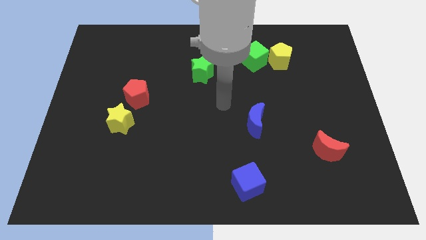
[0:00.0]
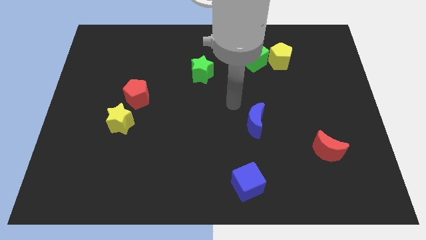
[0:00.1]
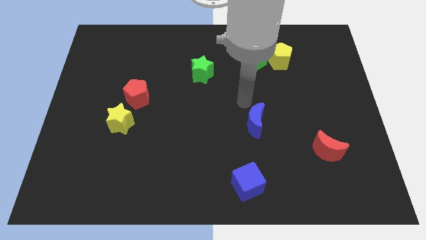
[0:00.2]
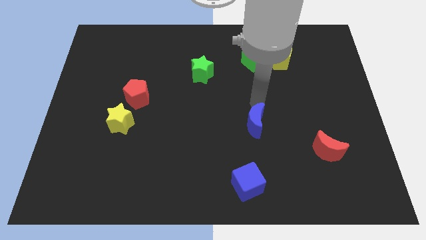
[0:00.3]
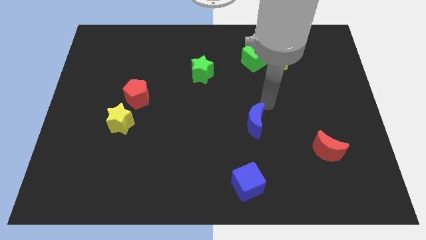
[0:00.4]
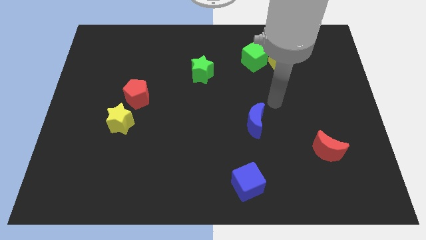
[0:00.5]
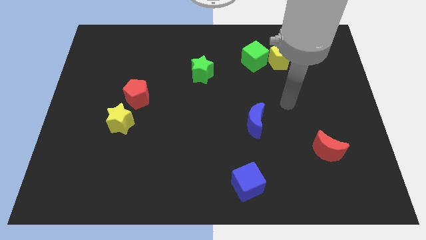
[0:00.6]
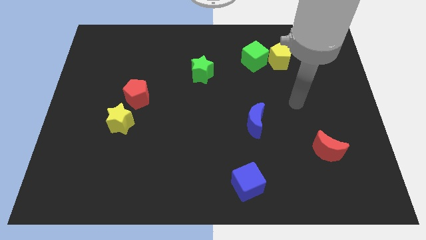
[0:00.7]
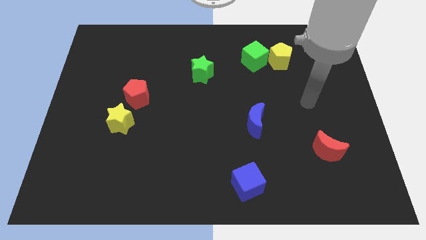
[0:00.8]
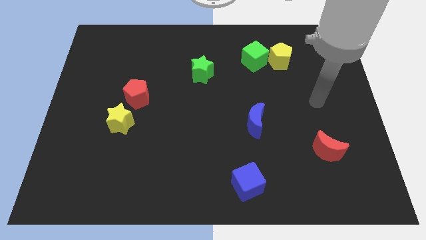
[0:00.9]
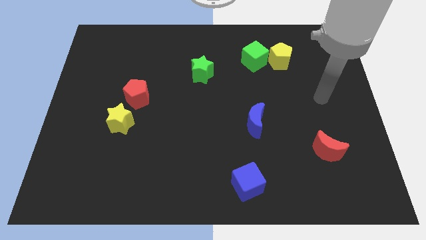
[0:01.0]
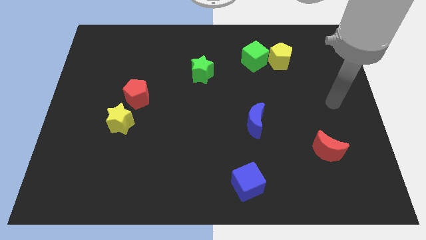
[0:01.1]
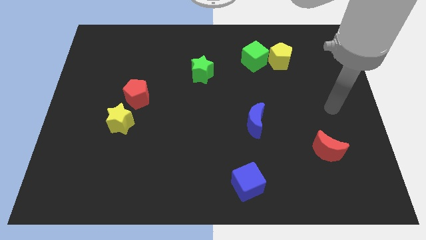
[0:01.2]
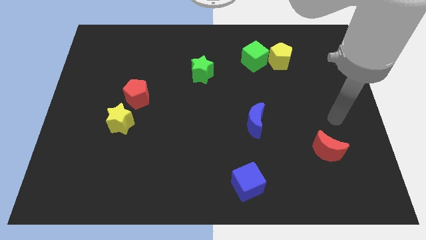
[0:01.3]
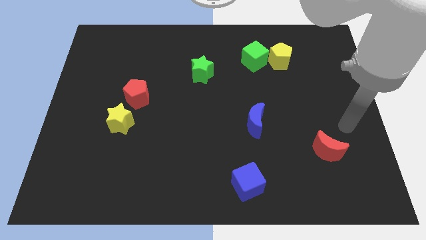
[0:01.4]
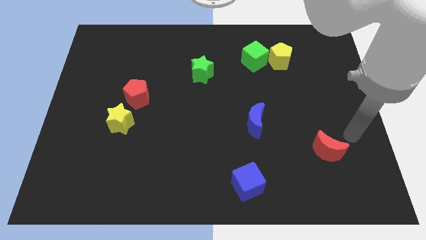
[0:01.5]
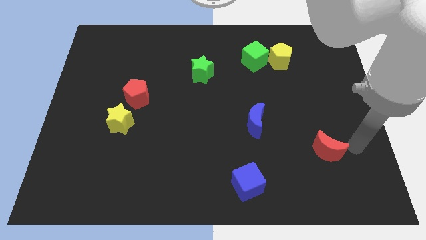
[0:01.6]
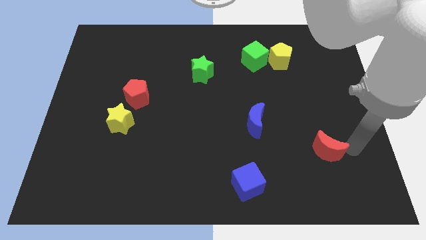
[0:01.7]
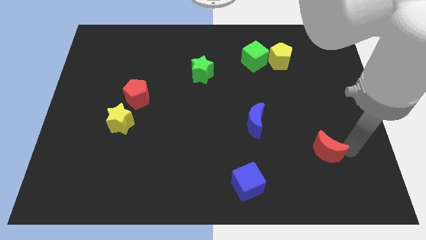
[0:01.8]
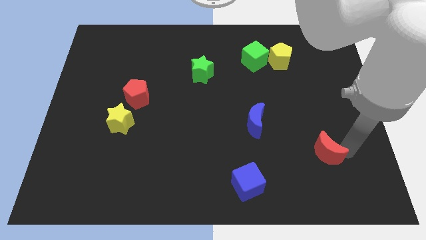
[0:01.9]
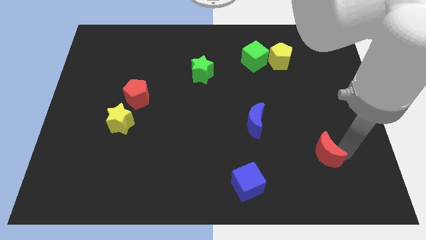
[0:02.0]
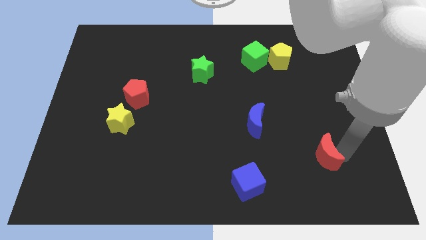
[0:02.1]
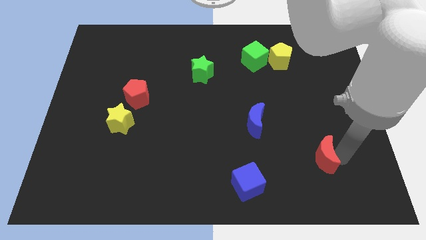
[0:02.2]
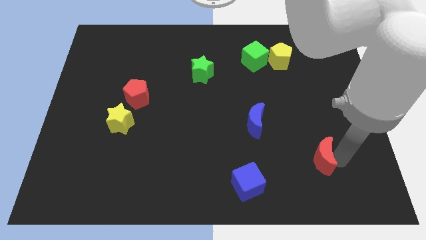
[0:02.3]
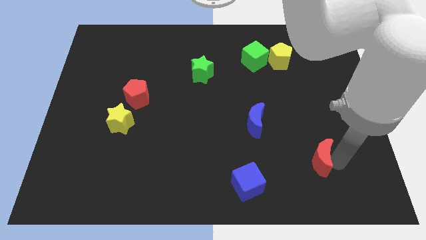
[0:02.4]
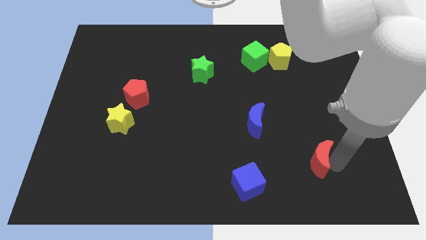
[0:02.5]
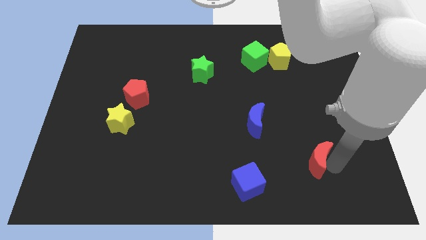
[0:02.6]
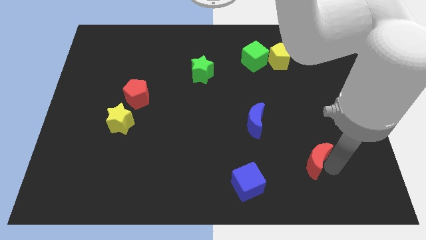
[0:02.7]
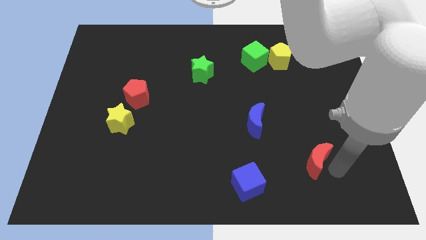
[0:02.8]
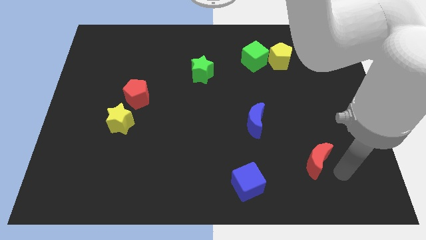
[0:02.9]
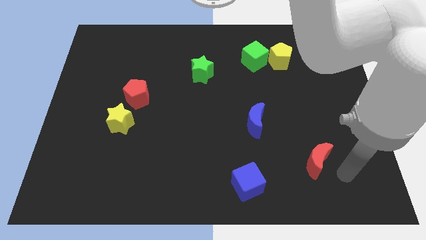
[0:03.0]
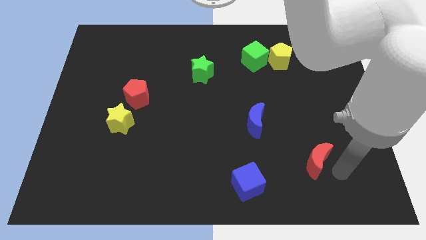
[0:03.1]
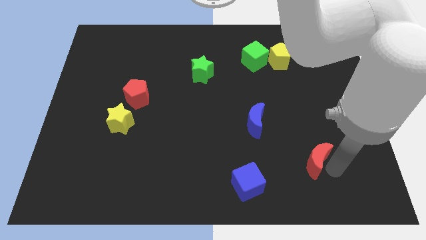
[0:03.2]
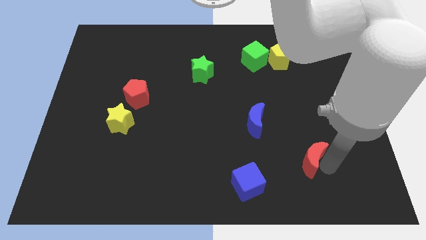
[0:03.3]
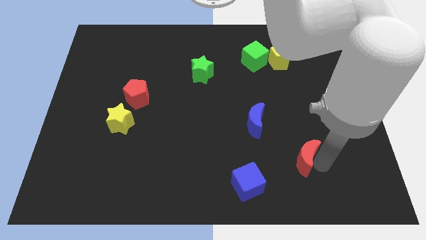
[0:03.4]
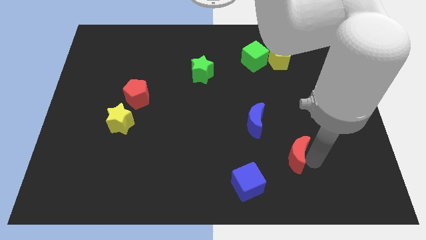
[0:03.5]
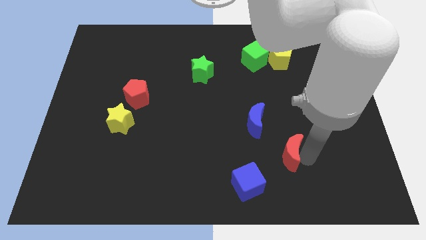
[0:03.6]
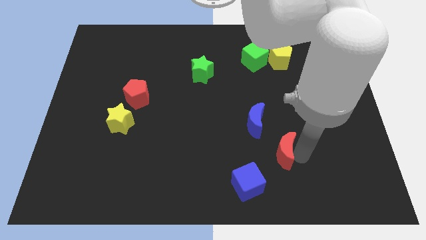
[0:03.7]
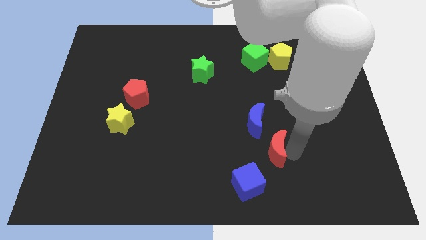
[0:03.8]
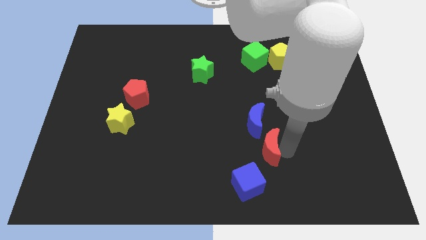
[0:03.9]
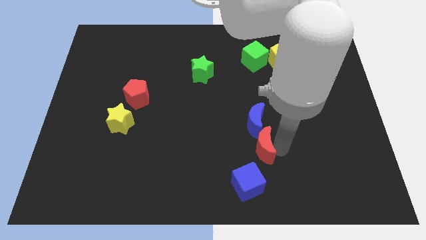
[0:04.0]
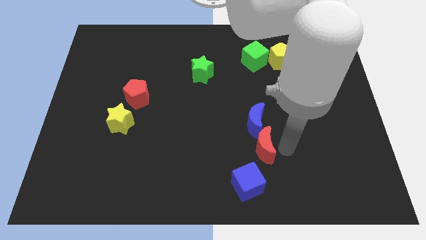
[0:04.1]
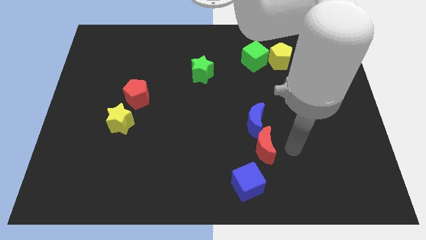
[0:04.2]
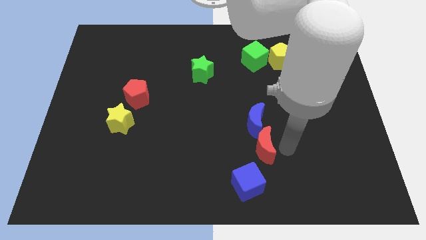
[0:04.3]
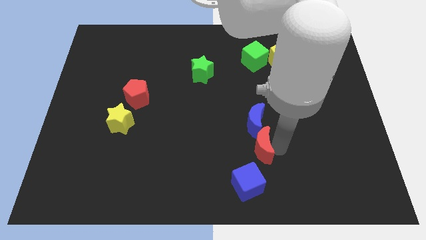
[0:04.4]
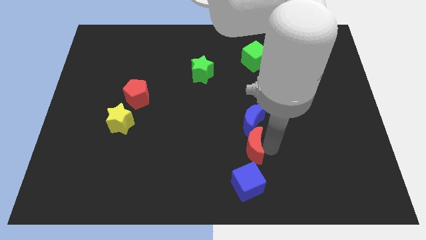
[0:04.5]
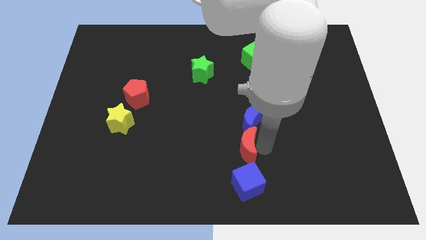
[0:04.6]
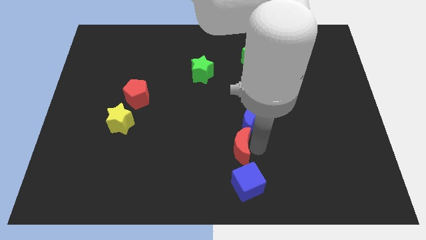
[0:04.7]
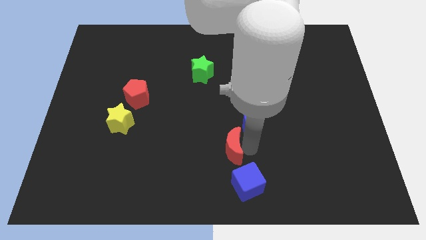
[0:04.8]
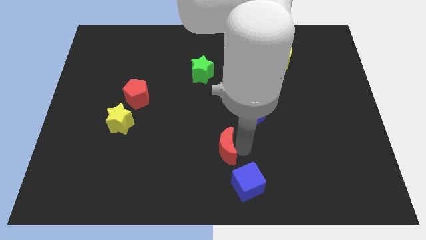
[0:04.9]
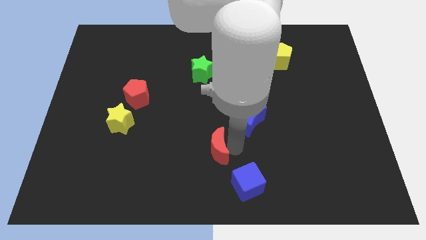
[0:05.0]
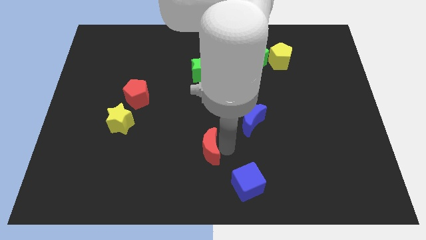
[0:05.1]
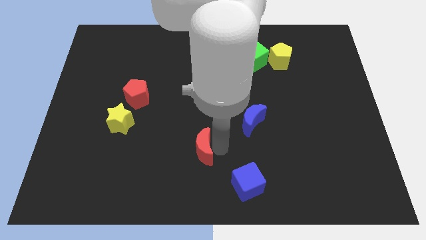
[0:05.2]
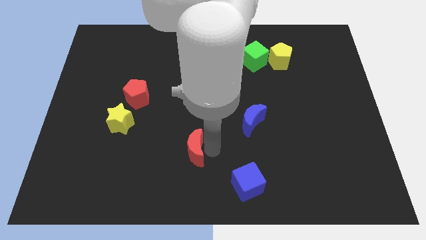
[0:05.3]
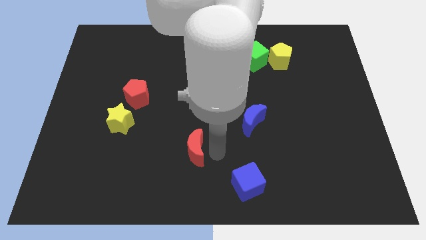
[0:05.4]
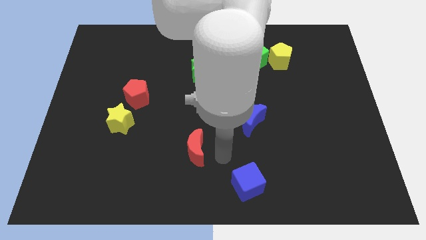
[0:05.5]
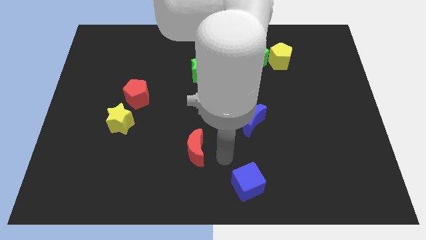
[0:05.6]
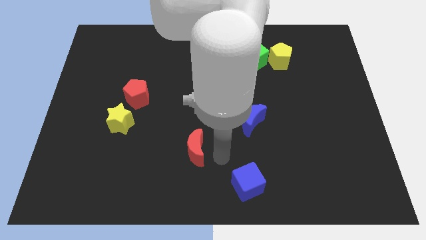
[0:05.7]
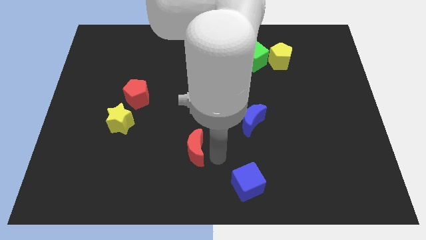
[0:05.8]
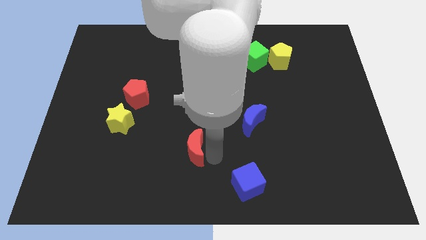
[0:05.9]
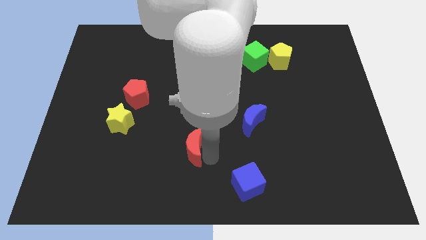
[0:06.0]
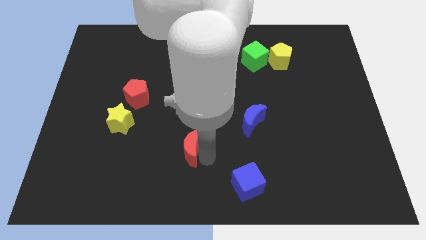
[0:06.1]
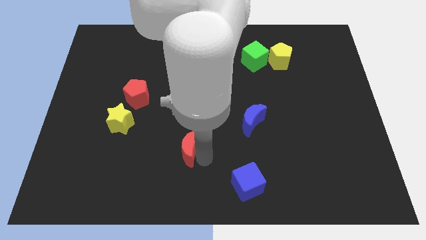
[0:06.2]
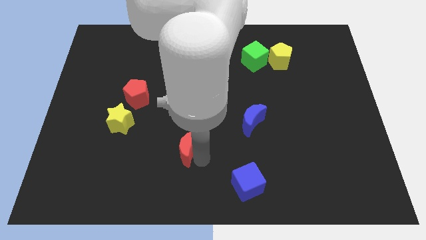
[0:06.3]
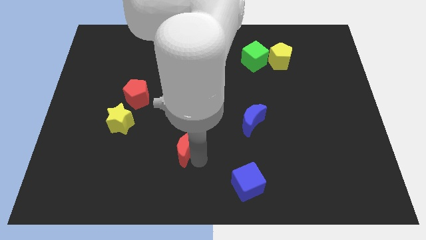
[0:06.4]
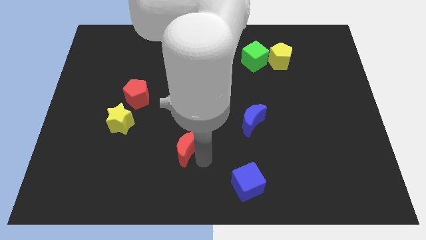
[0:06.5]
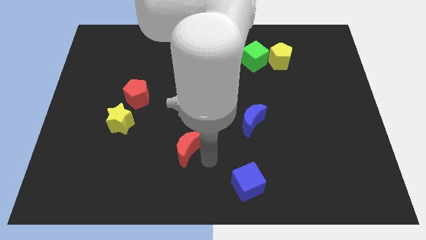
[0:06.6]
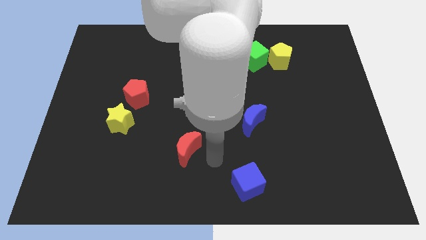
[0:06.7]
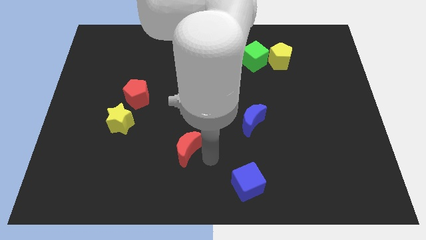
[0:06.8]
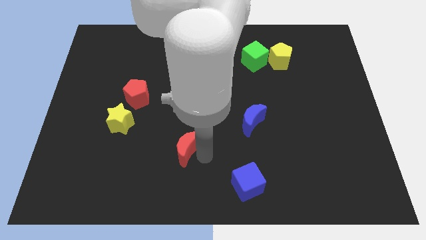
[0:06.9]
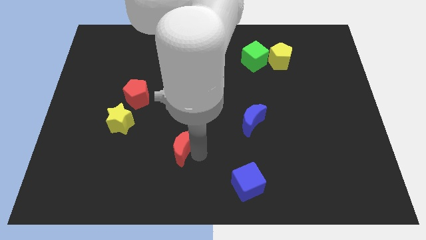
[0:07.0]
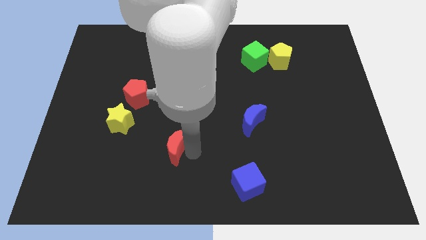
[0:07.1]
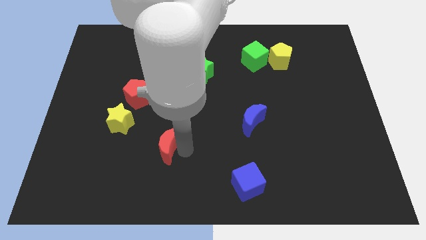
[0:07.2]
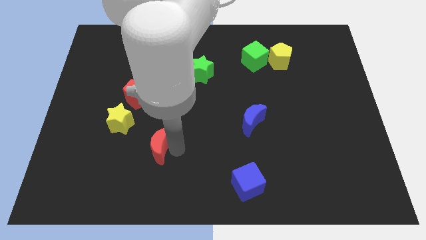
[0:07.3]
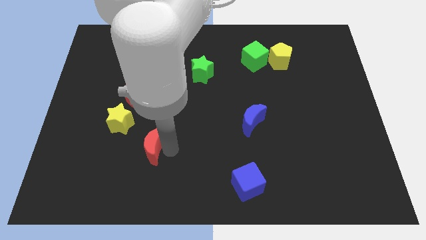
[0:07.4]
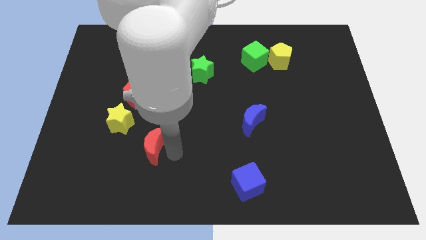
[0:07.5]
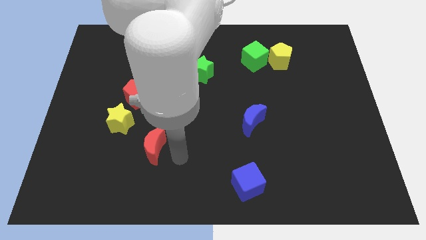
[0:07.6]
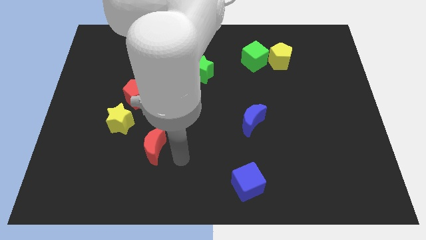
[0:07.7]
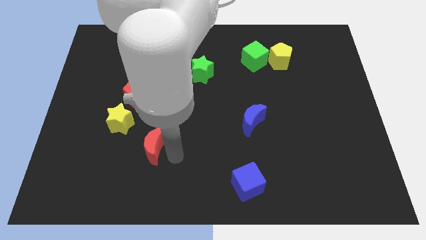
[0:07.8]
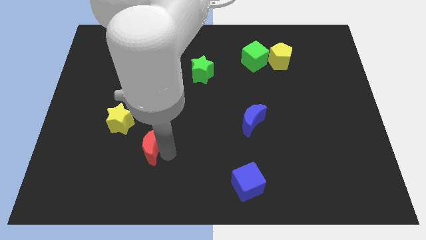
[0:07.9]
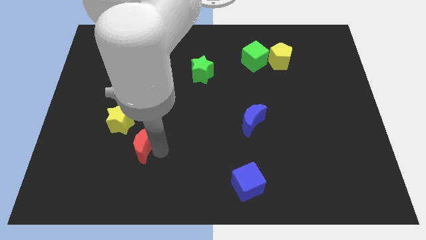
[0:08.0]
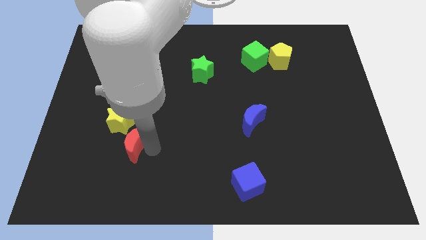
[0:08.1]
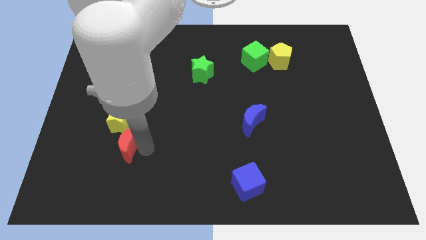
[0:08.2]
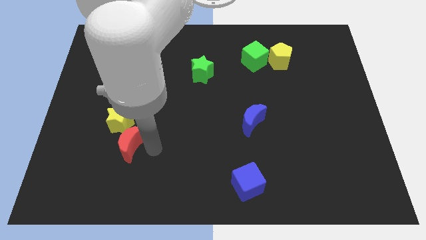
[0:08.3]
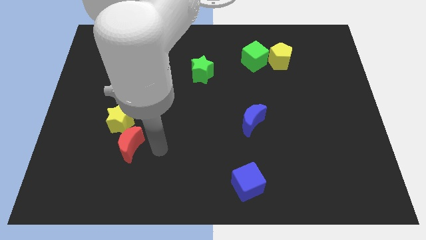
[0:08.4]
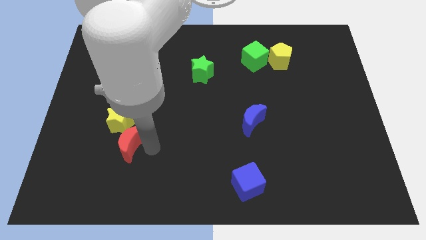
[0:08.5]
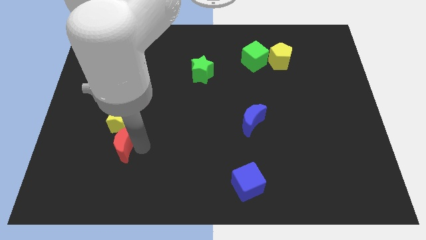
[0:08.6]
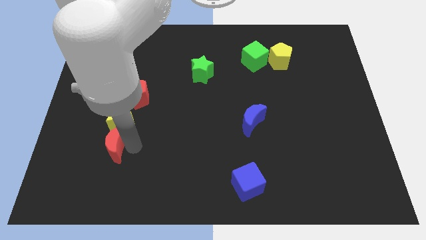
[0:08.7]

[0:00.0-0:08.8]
slide the red moon to the bottom left side of the yellow star
